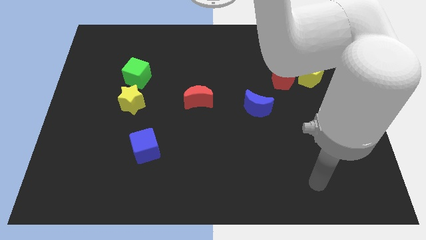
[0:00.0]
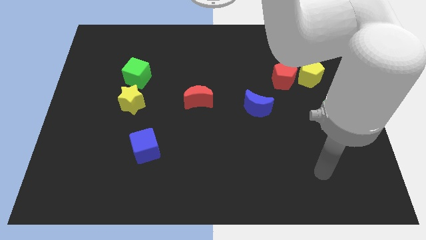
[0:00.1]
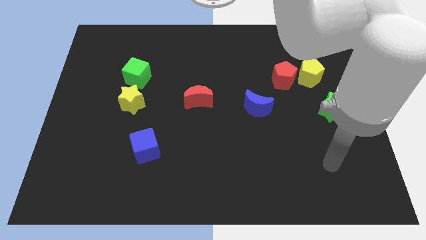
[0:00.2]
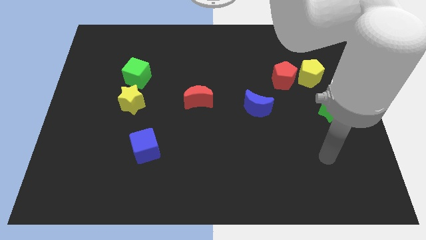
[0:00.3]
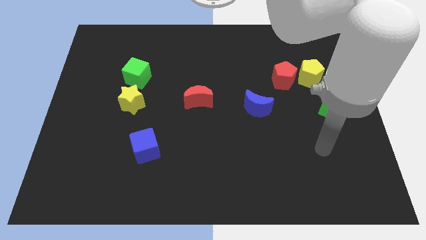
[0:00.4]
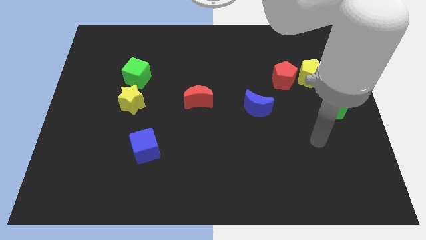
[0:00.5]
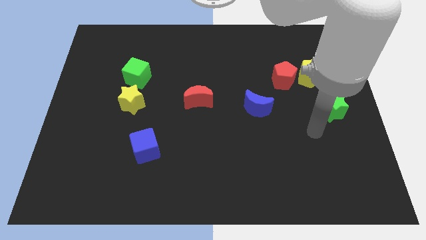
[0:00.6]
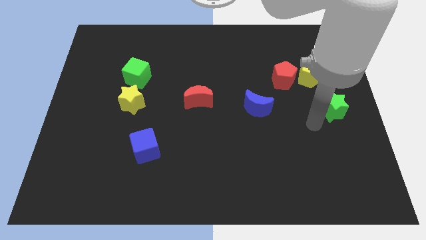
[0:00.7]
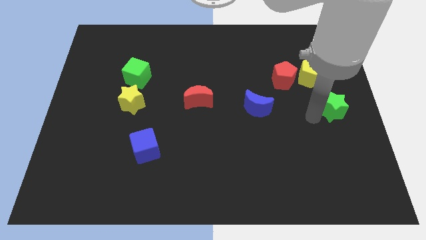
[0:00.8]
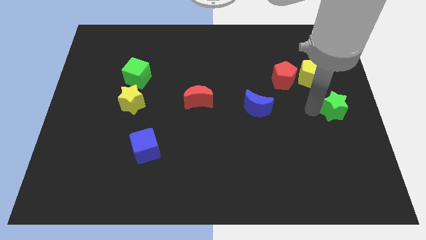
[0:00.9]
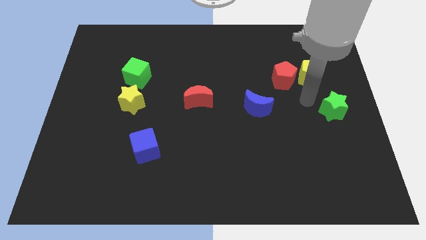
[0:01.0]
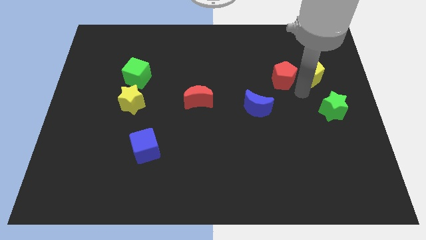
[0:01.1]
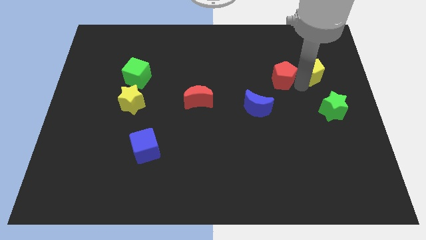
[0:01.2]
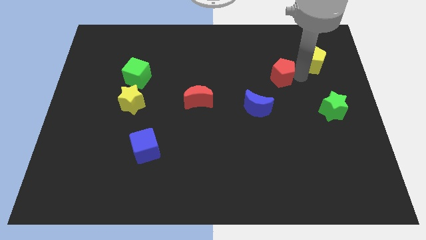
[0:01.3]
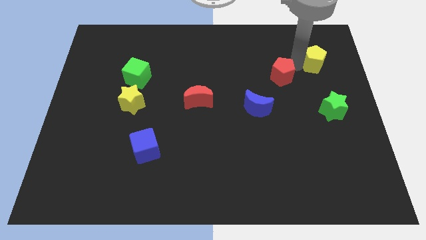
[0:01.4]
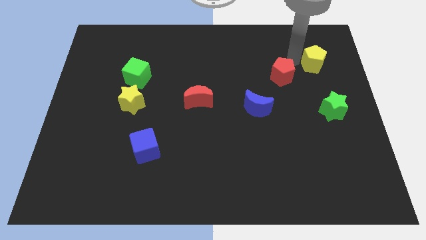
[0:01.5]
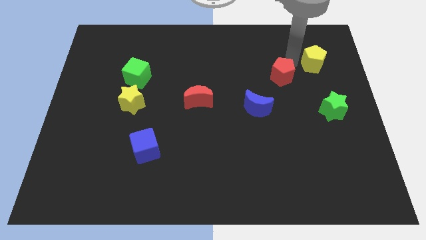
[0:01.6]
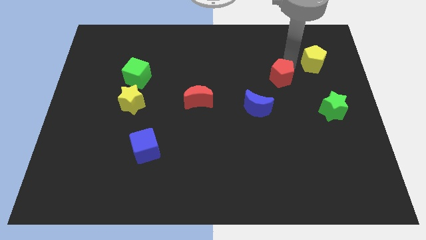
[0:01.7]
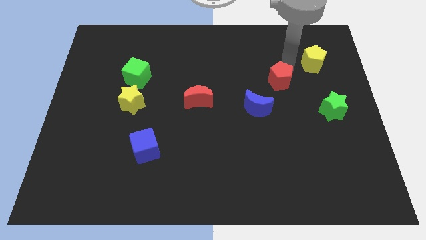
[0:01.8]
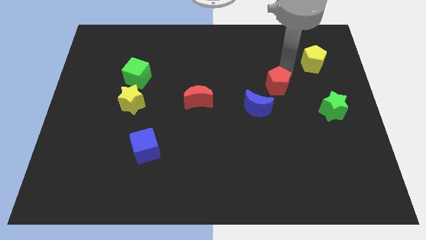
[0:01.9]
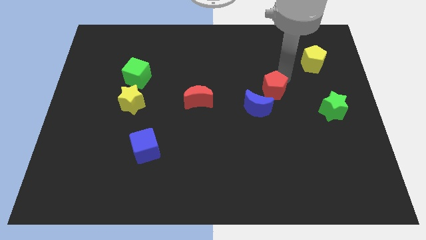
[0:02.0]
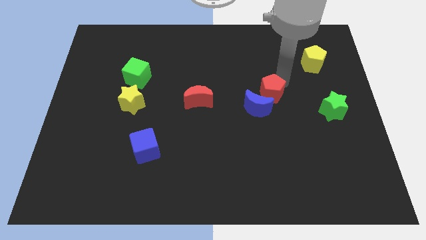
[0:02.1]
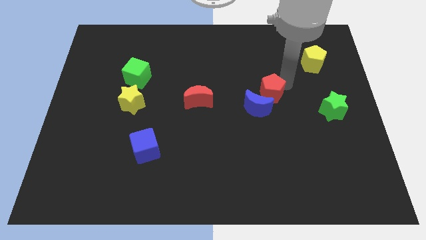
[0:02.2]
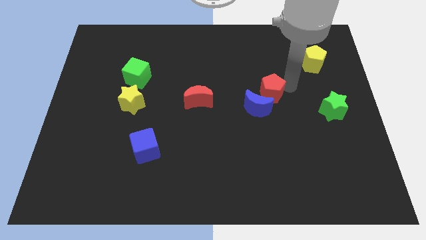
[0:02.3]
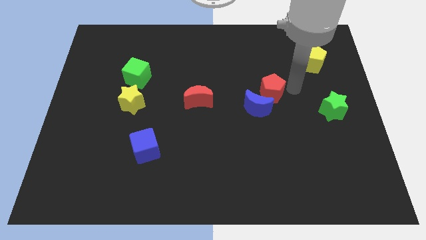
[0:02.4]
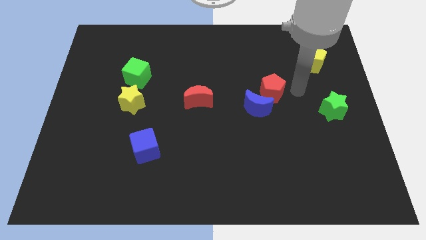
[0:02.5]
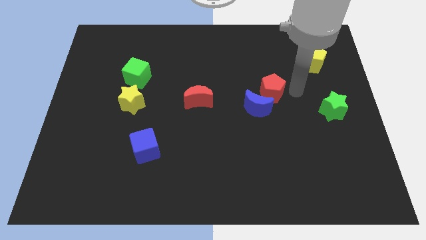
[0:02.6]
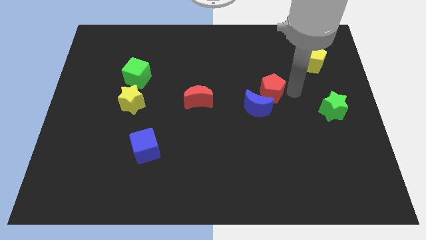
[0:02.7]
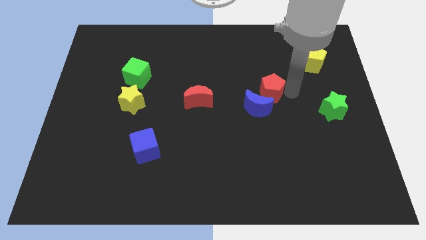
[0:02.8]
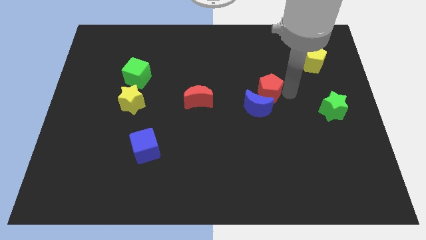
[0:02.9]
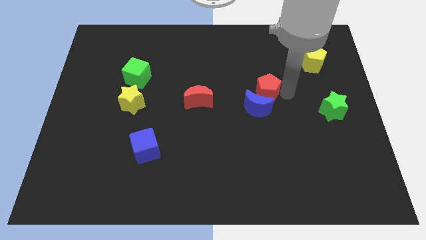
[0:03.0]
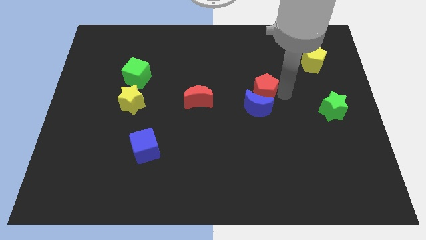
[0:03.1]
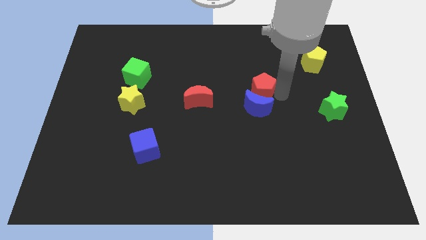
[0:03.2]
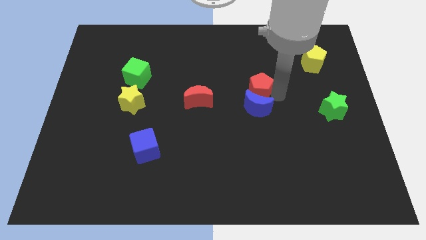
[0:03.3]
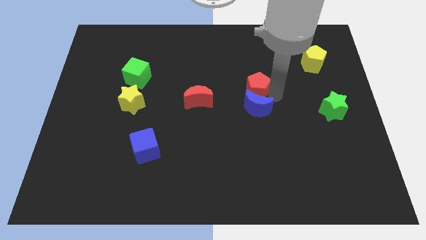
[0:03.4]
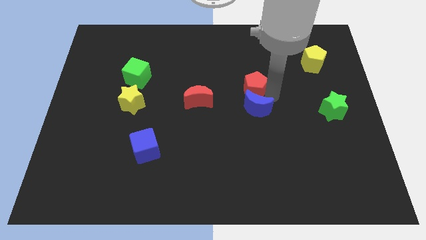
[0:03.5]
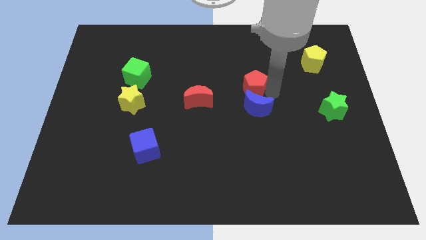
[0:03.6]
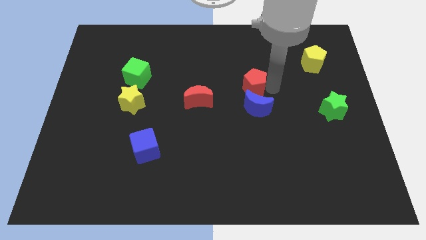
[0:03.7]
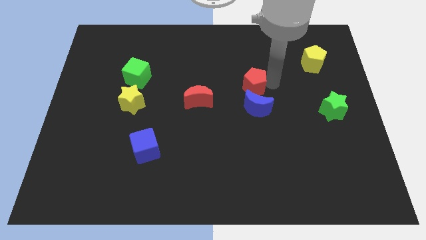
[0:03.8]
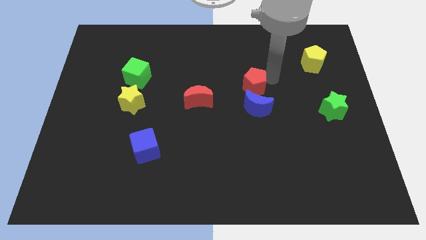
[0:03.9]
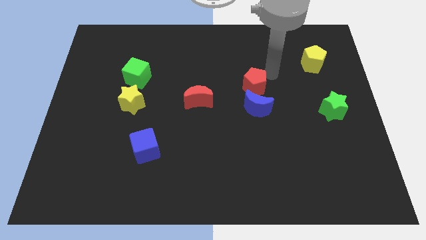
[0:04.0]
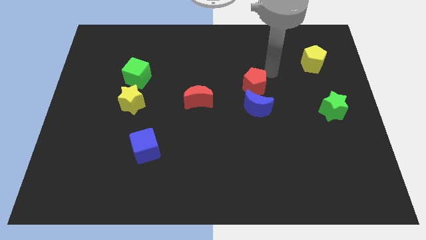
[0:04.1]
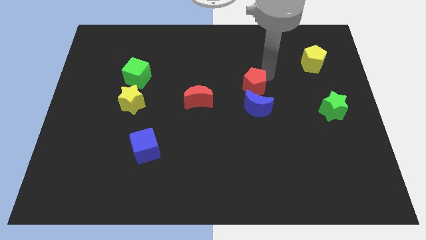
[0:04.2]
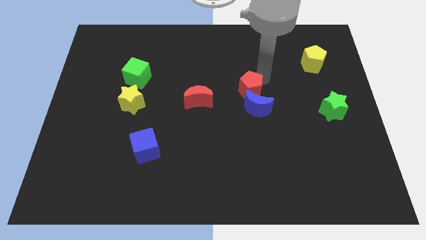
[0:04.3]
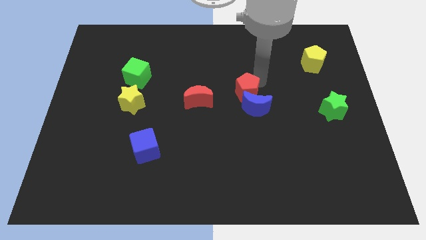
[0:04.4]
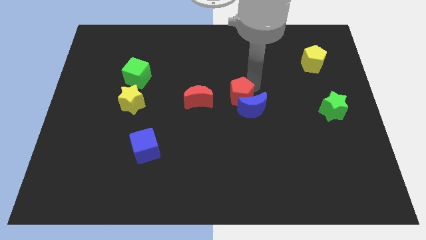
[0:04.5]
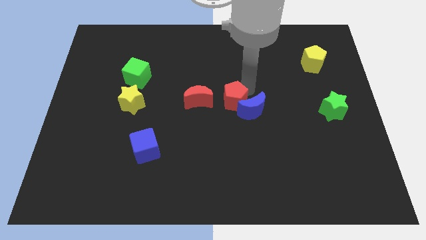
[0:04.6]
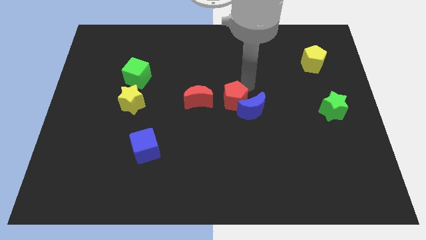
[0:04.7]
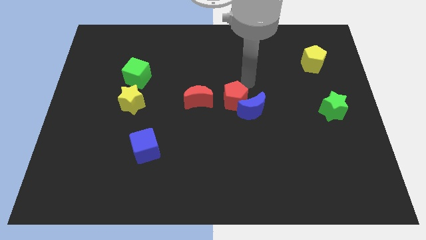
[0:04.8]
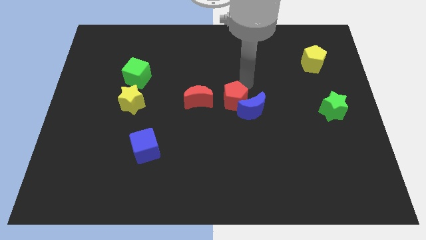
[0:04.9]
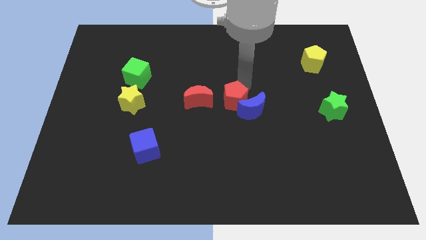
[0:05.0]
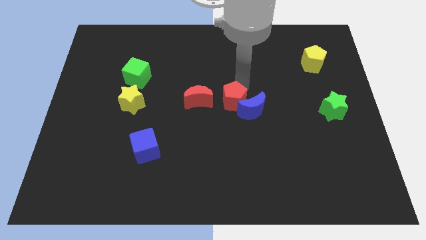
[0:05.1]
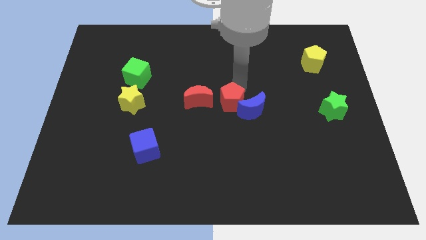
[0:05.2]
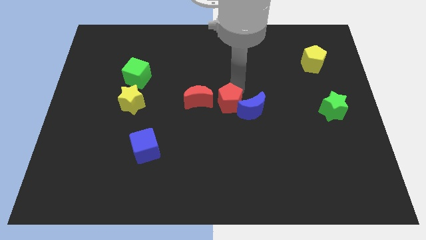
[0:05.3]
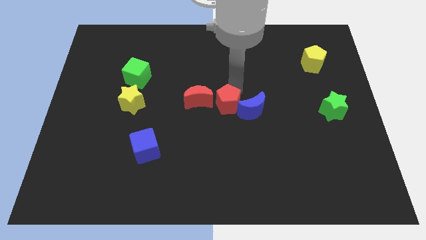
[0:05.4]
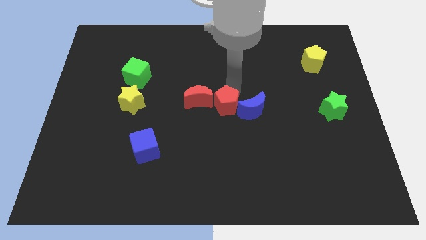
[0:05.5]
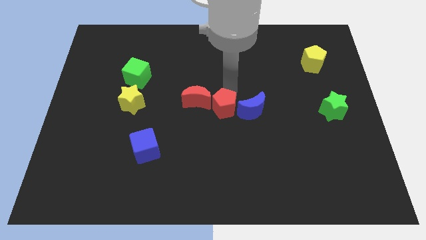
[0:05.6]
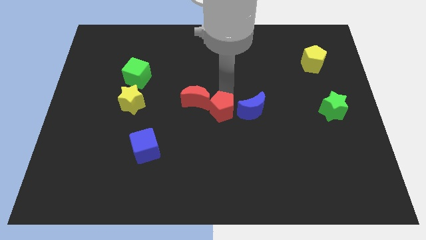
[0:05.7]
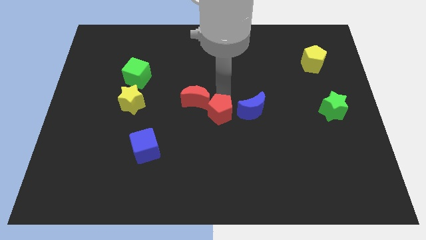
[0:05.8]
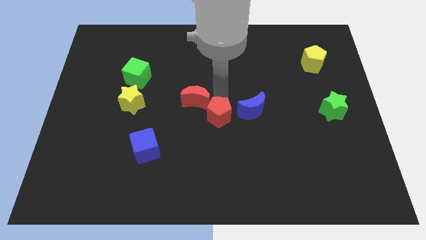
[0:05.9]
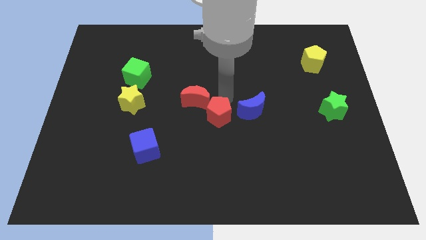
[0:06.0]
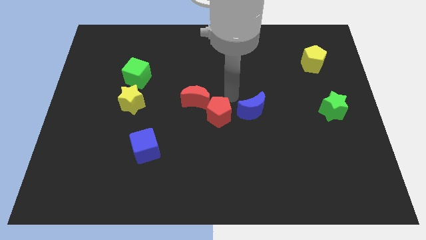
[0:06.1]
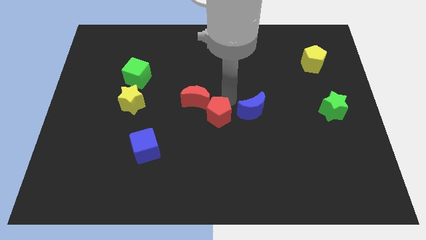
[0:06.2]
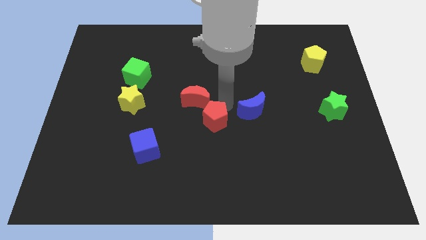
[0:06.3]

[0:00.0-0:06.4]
push the red pentagon down and to the left

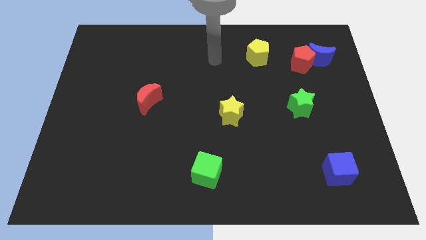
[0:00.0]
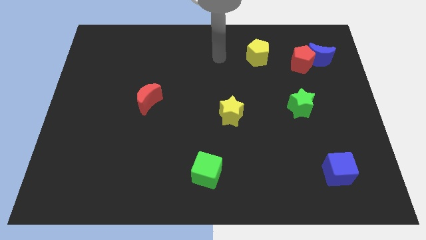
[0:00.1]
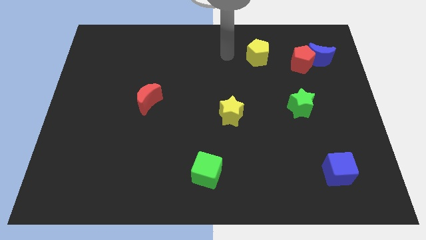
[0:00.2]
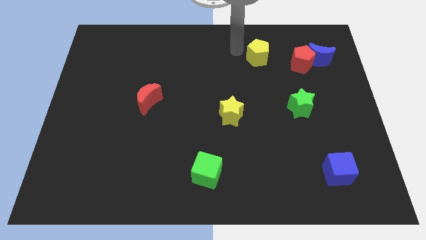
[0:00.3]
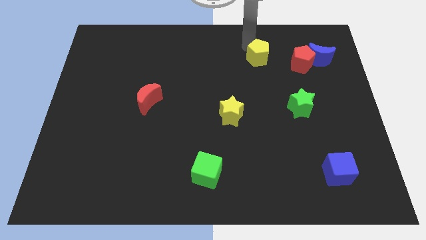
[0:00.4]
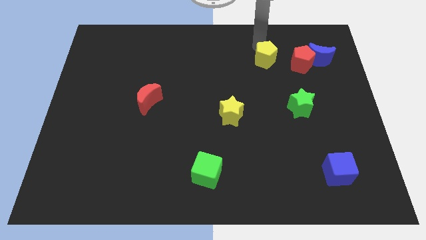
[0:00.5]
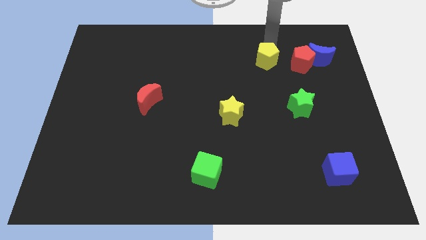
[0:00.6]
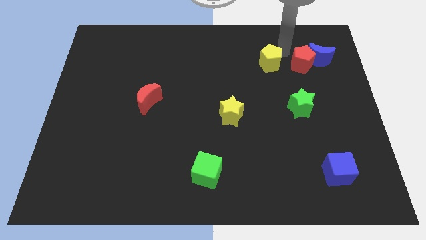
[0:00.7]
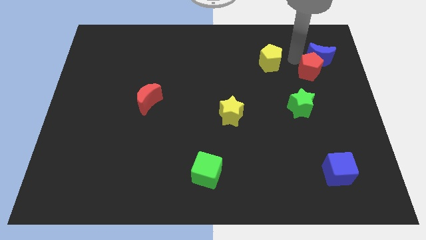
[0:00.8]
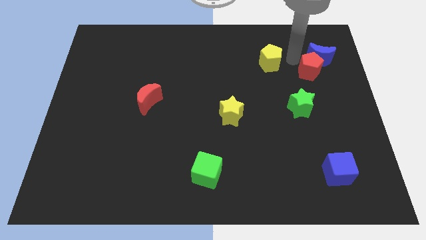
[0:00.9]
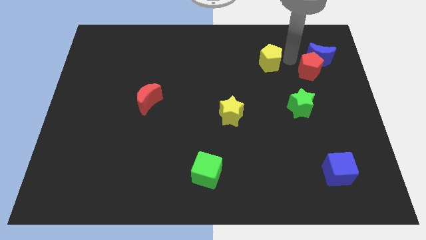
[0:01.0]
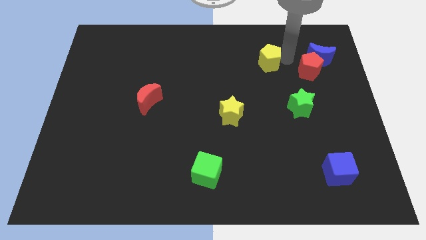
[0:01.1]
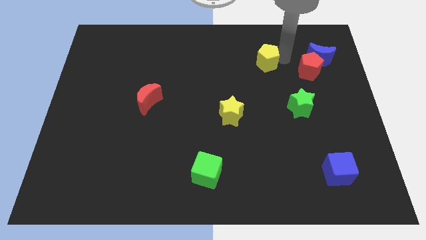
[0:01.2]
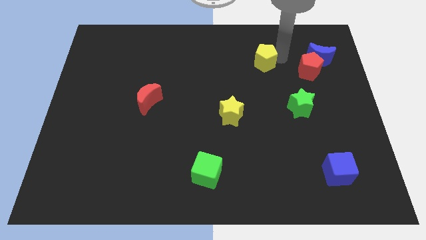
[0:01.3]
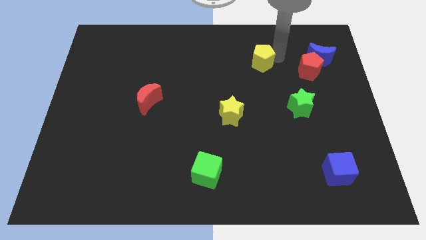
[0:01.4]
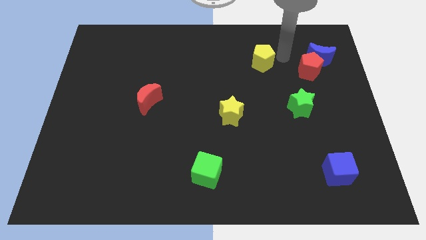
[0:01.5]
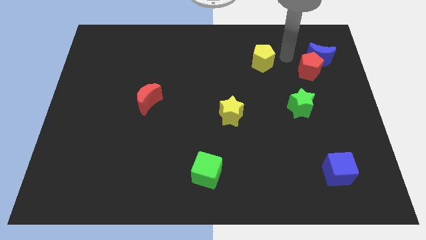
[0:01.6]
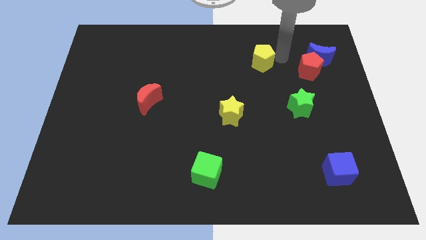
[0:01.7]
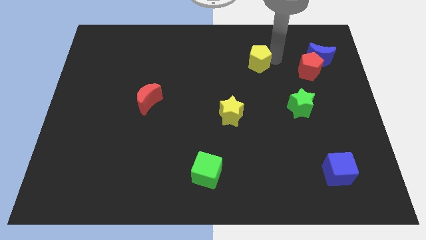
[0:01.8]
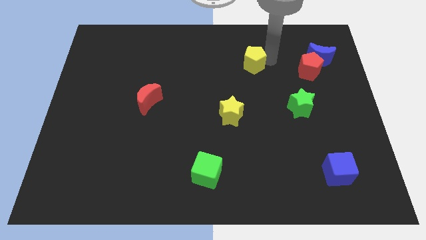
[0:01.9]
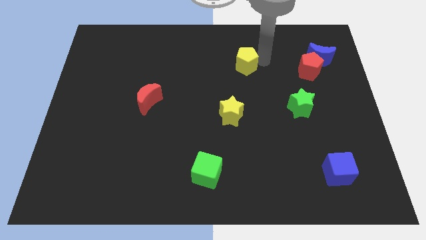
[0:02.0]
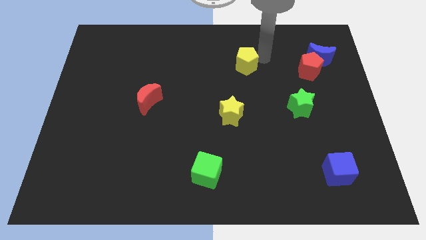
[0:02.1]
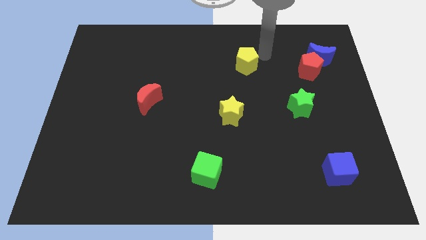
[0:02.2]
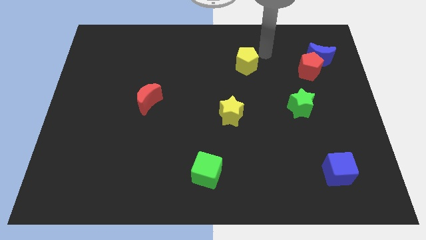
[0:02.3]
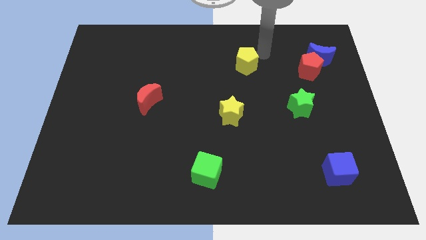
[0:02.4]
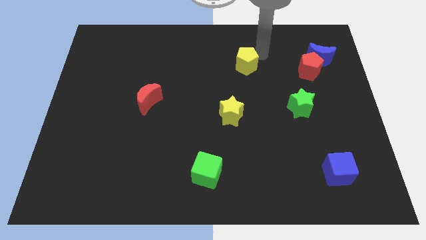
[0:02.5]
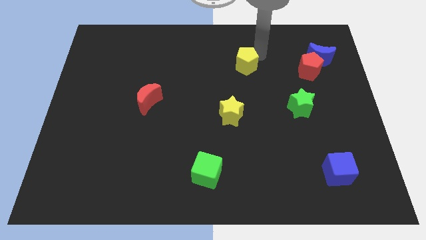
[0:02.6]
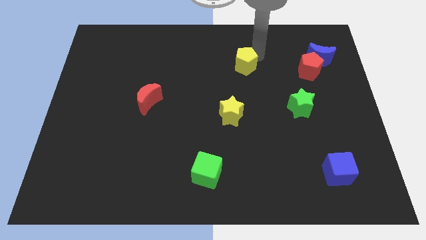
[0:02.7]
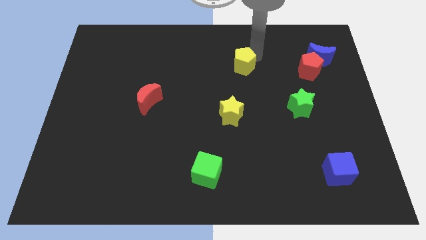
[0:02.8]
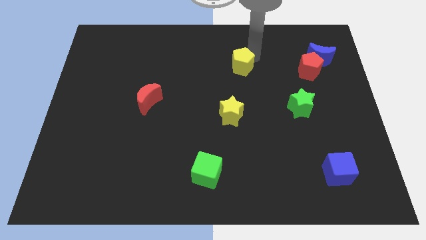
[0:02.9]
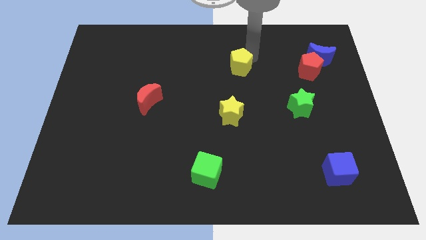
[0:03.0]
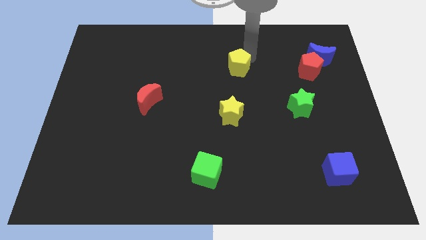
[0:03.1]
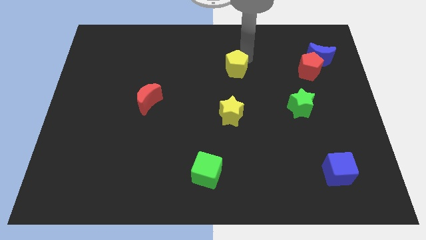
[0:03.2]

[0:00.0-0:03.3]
slightly push the yellow pentagon diagonally downwards and left
